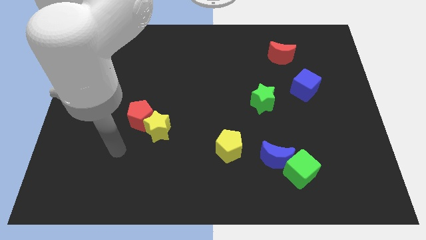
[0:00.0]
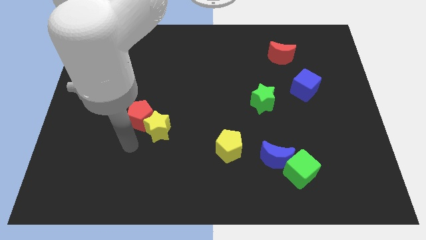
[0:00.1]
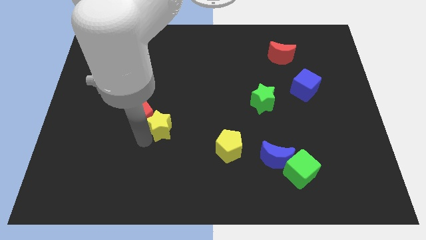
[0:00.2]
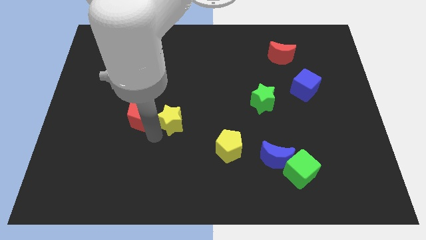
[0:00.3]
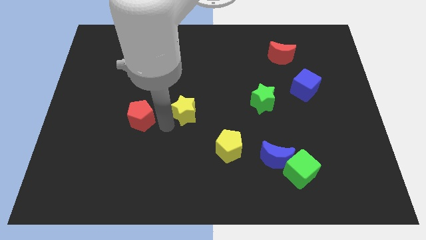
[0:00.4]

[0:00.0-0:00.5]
pull the red pentagon apart from the yellow star

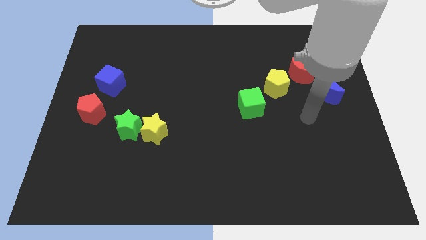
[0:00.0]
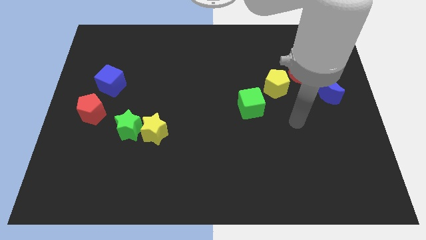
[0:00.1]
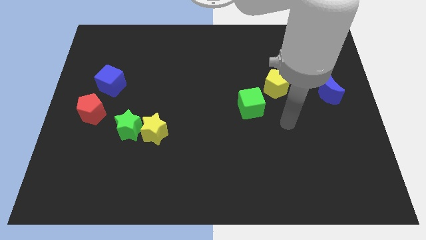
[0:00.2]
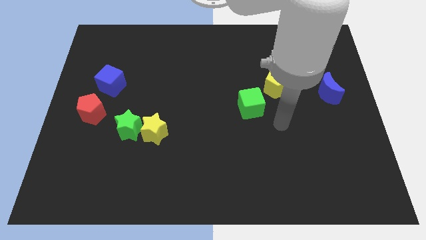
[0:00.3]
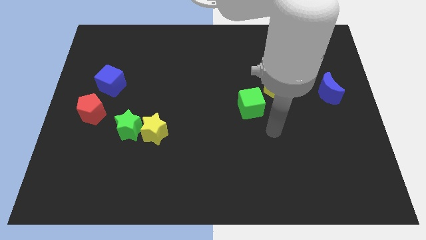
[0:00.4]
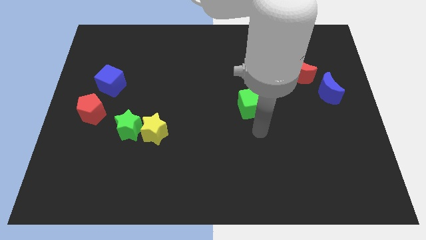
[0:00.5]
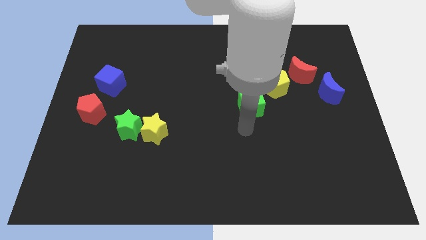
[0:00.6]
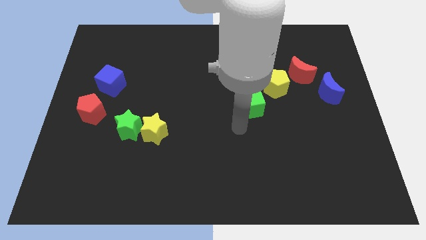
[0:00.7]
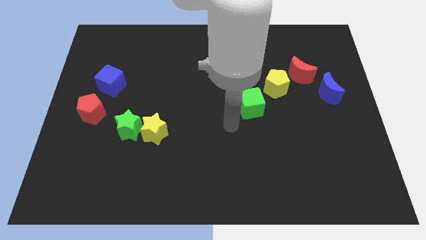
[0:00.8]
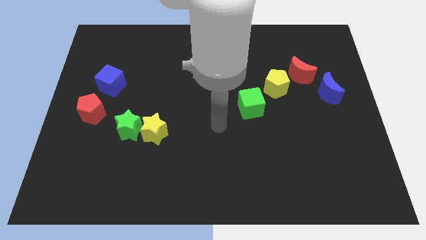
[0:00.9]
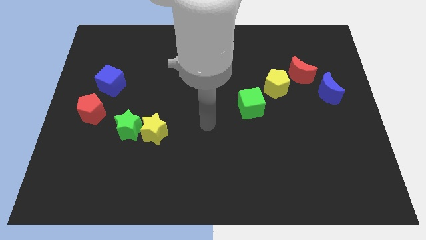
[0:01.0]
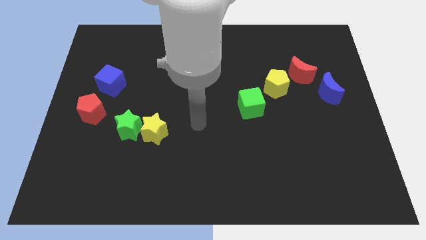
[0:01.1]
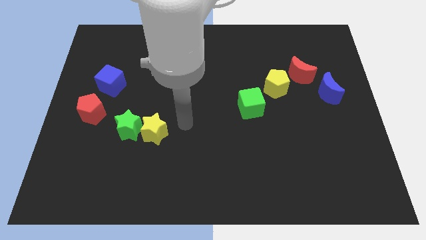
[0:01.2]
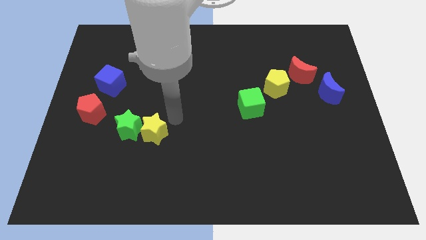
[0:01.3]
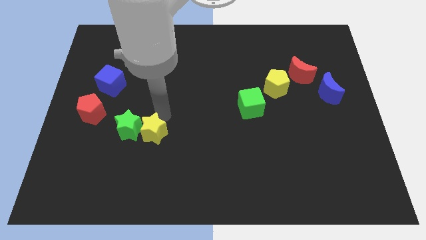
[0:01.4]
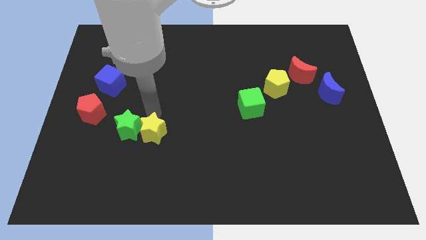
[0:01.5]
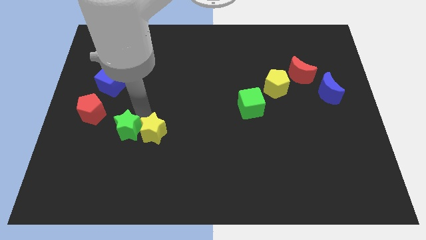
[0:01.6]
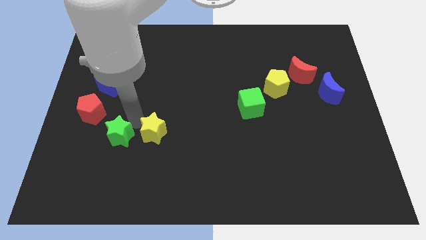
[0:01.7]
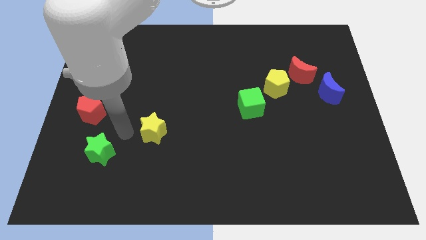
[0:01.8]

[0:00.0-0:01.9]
pull the yellow star apart from the green star

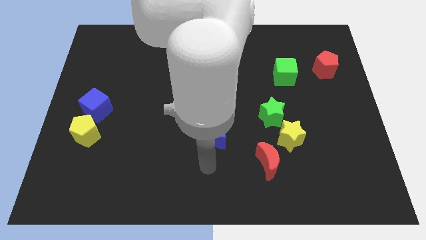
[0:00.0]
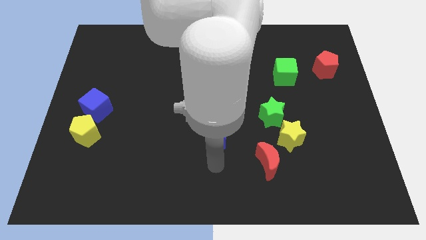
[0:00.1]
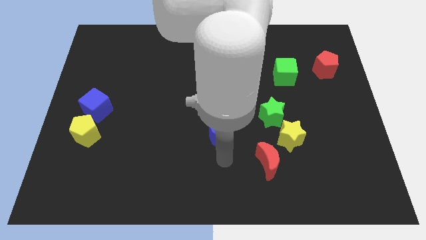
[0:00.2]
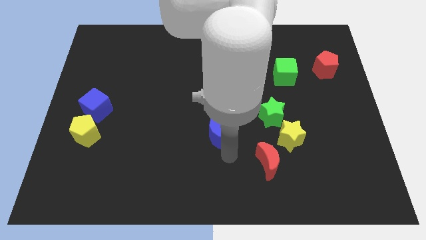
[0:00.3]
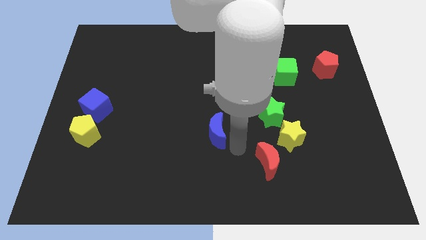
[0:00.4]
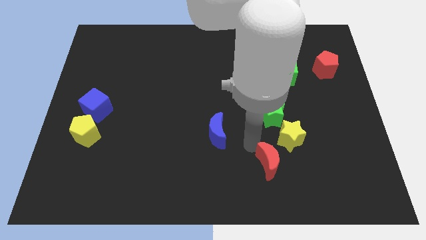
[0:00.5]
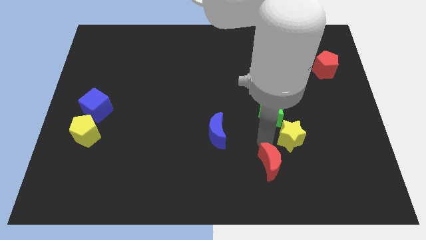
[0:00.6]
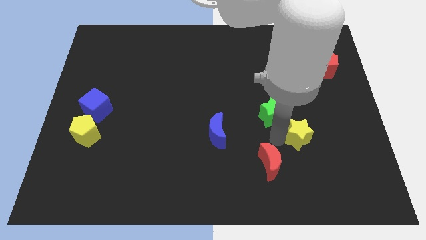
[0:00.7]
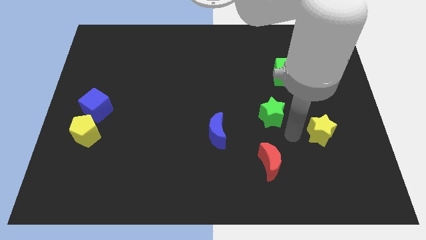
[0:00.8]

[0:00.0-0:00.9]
move the green star away from the yellow star

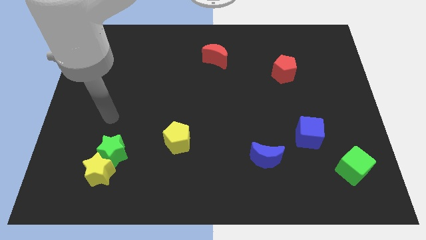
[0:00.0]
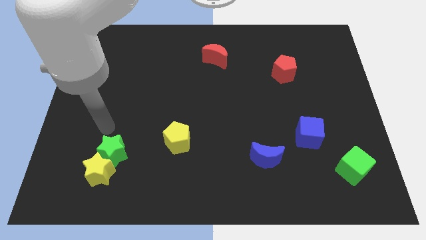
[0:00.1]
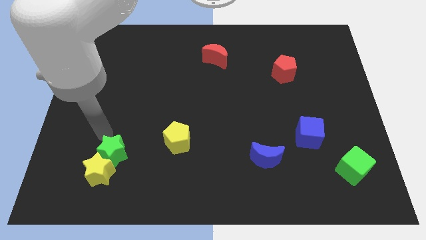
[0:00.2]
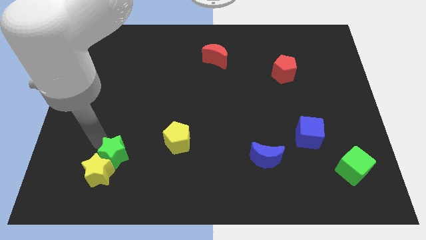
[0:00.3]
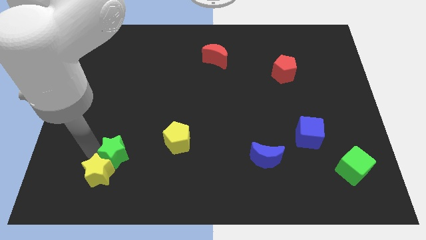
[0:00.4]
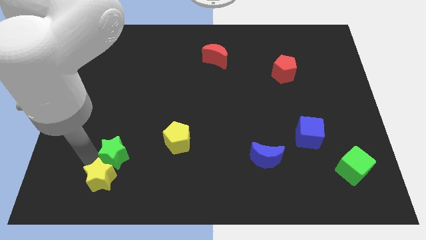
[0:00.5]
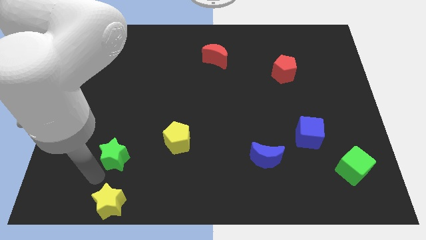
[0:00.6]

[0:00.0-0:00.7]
pull the green star apart from the yellow star

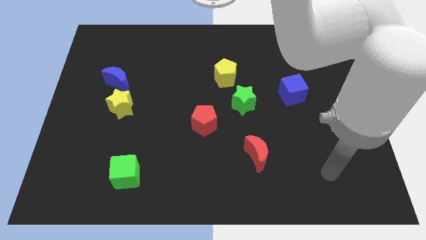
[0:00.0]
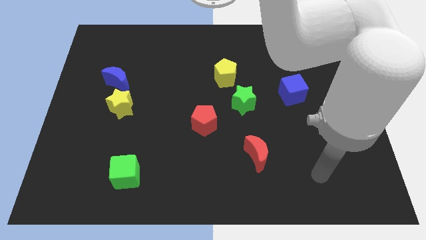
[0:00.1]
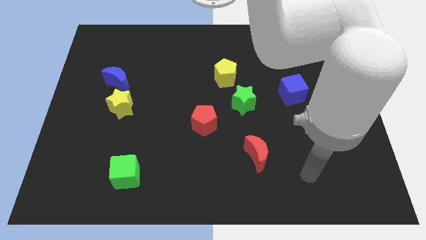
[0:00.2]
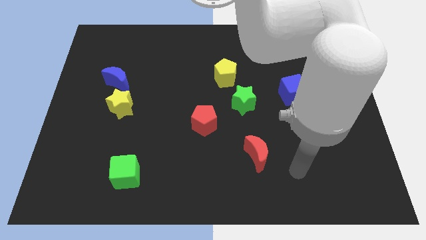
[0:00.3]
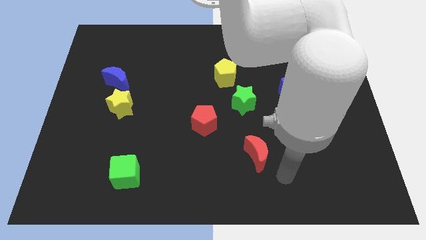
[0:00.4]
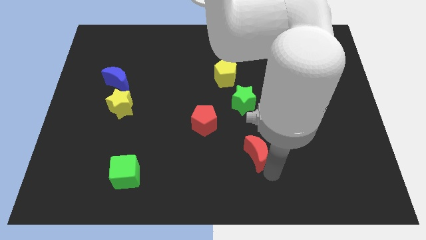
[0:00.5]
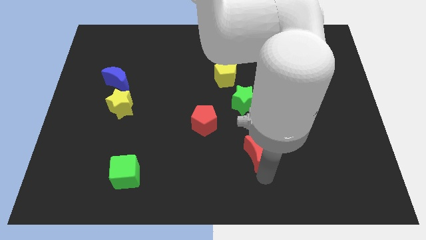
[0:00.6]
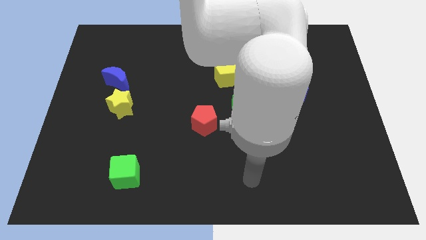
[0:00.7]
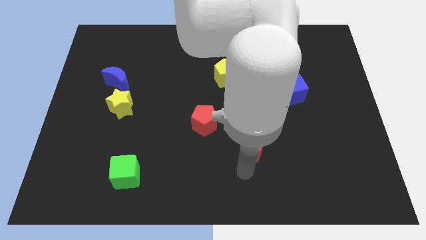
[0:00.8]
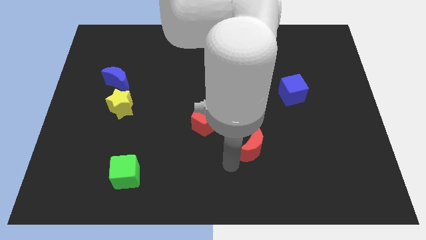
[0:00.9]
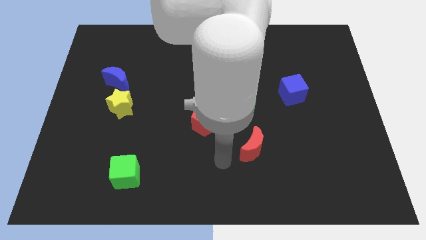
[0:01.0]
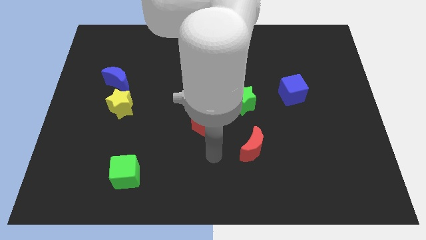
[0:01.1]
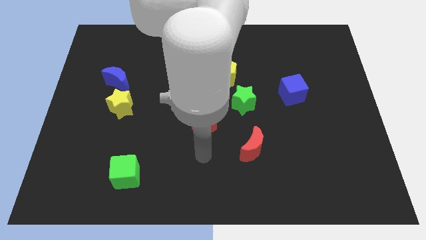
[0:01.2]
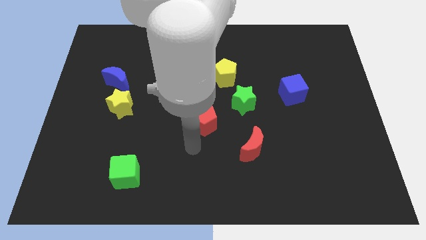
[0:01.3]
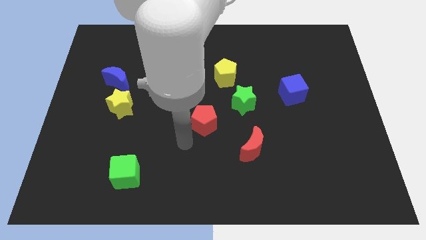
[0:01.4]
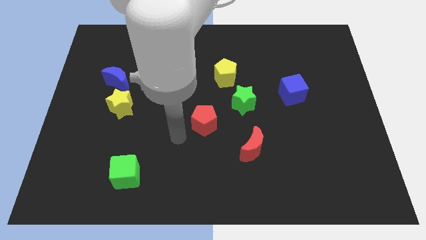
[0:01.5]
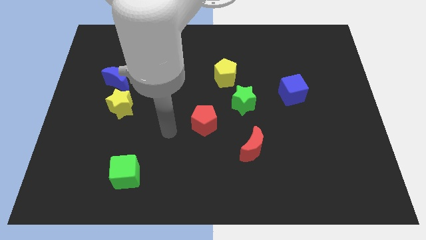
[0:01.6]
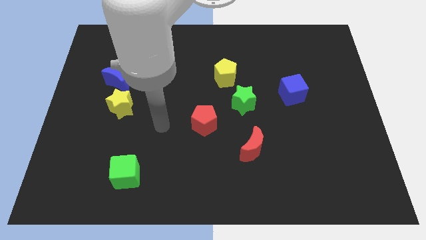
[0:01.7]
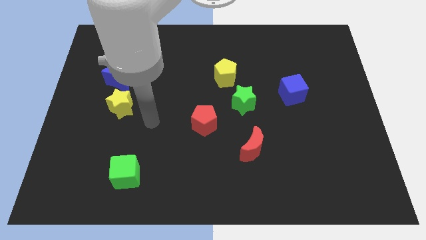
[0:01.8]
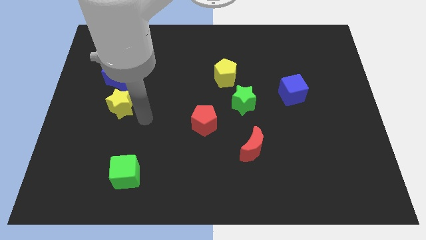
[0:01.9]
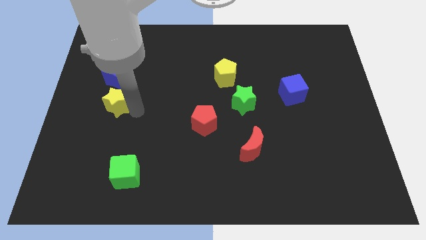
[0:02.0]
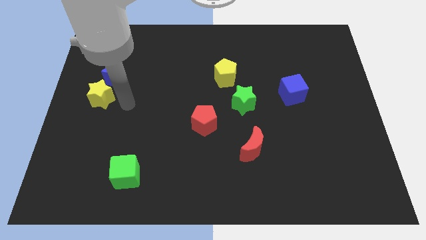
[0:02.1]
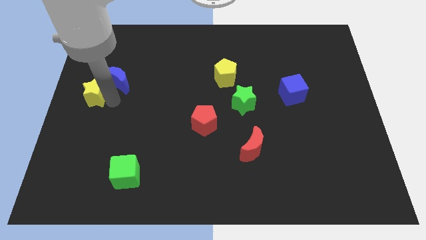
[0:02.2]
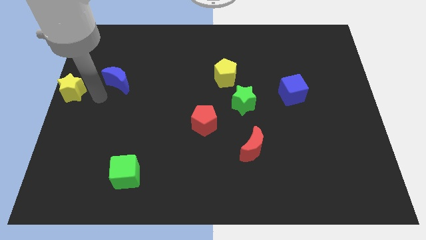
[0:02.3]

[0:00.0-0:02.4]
separate the blue moon from the yellow star

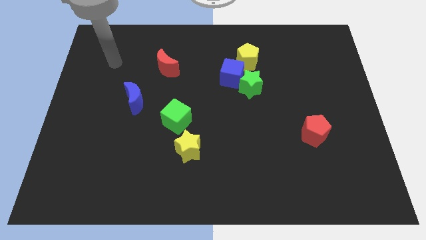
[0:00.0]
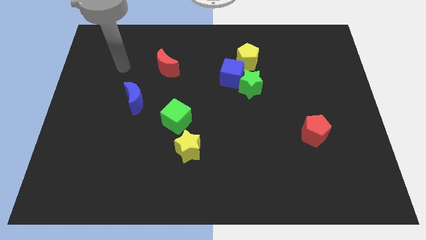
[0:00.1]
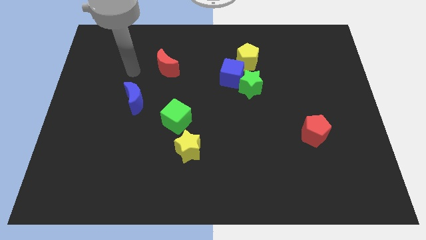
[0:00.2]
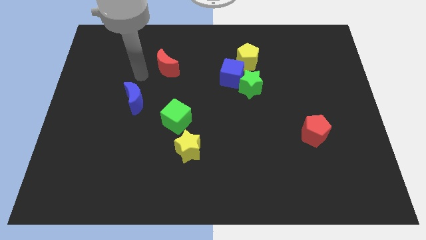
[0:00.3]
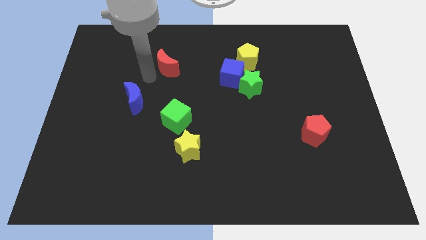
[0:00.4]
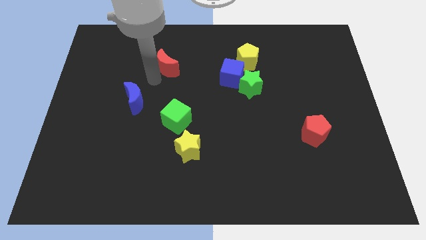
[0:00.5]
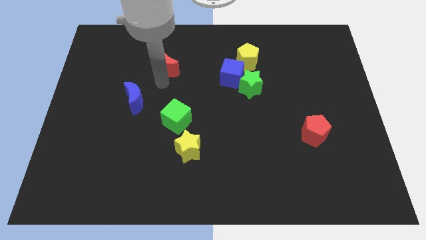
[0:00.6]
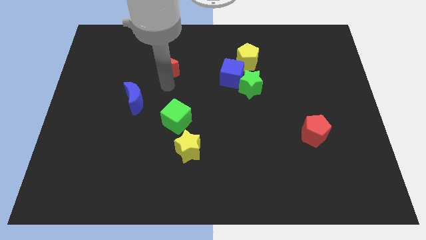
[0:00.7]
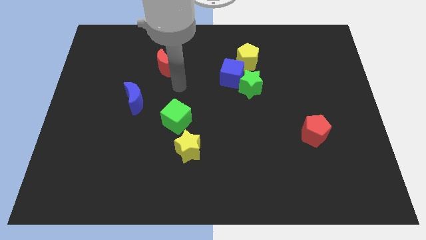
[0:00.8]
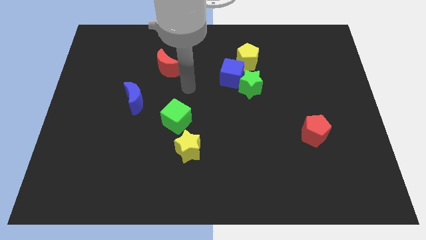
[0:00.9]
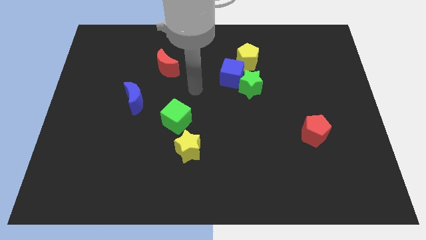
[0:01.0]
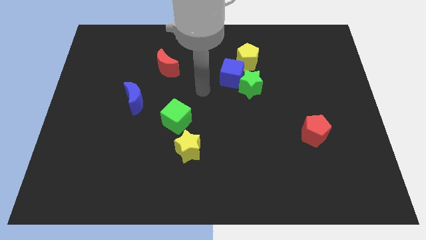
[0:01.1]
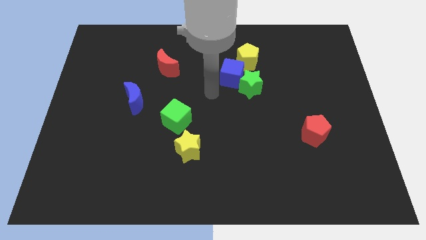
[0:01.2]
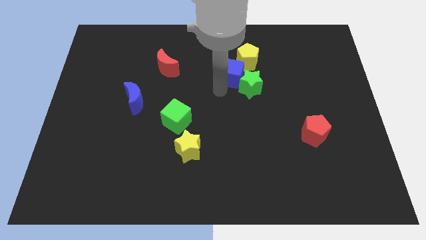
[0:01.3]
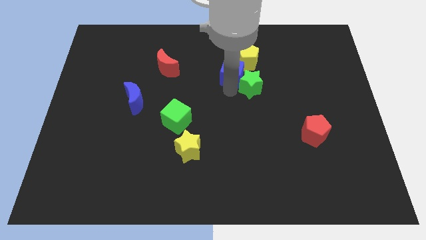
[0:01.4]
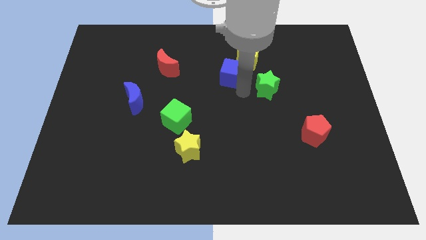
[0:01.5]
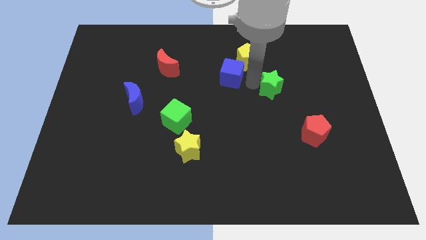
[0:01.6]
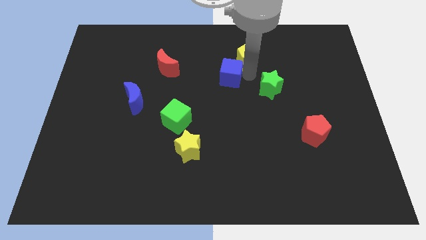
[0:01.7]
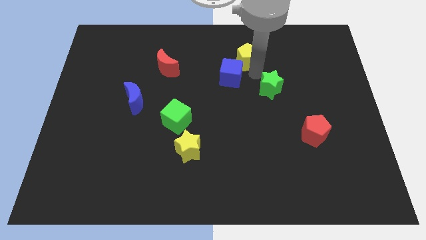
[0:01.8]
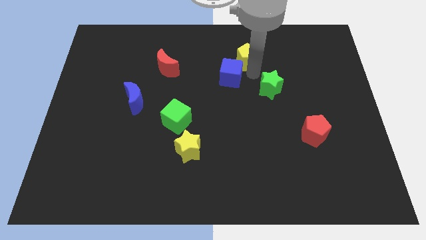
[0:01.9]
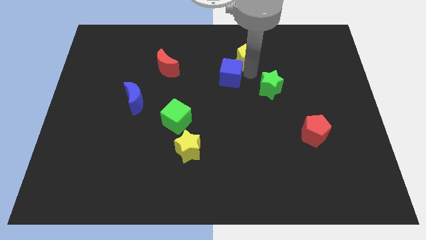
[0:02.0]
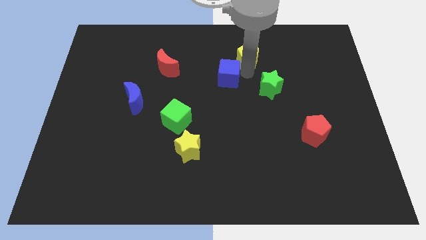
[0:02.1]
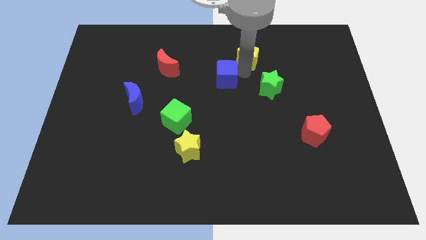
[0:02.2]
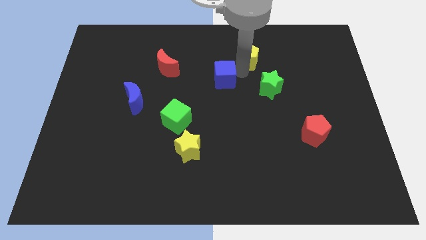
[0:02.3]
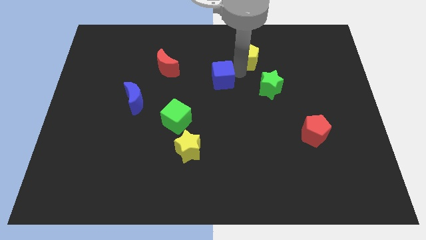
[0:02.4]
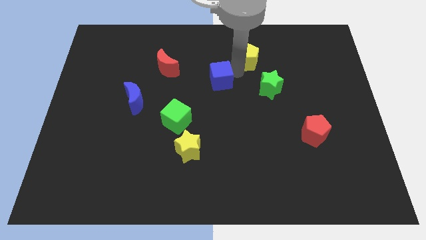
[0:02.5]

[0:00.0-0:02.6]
move the blue cube away from the green star and yellow pentagon
